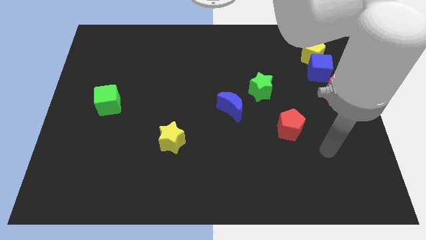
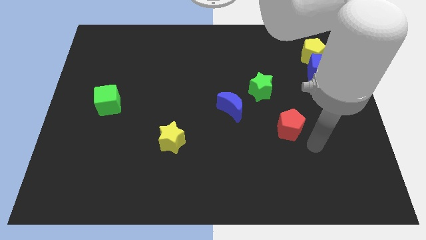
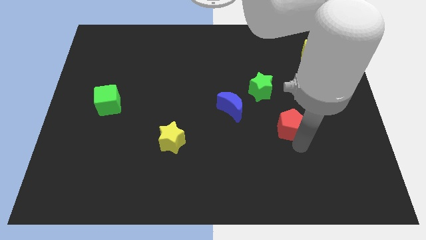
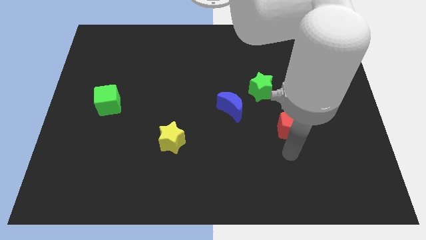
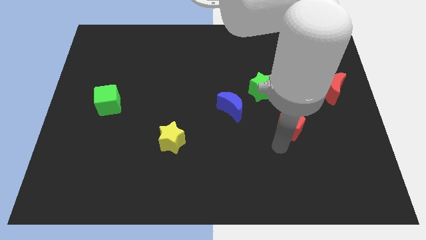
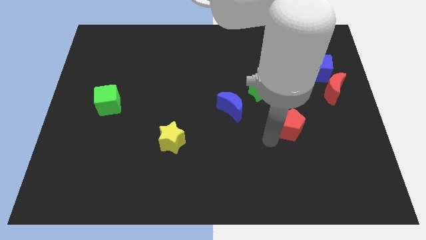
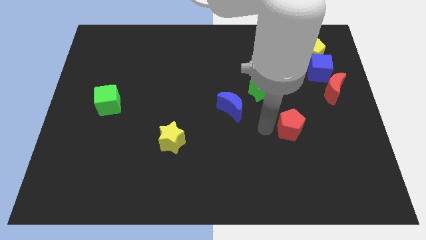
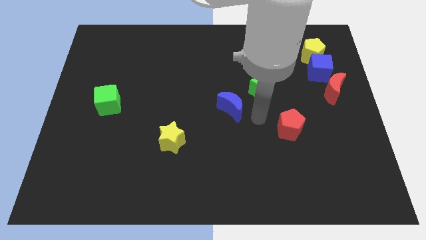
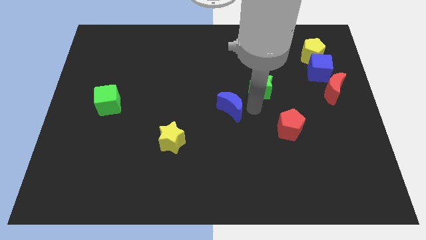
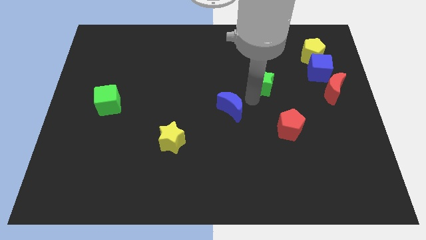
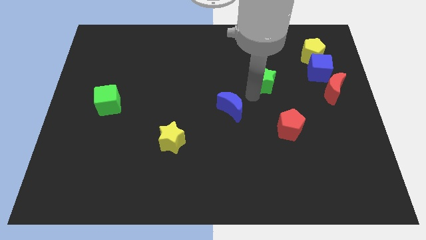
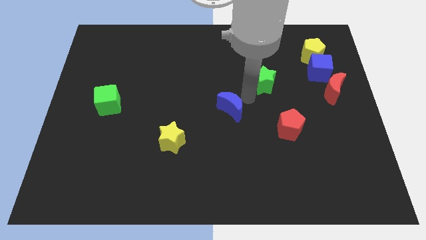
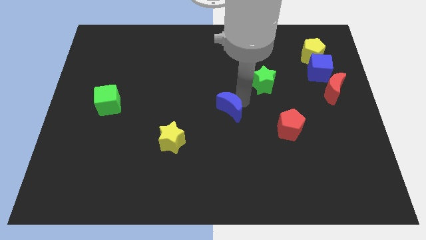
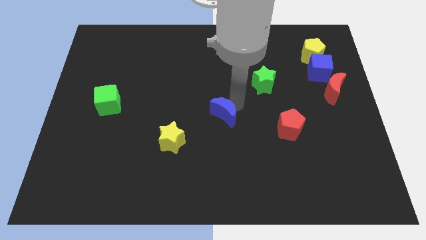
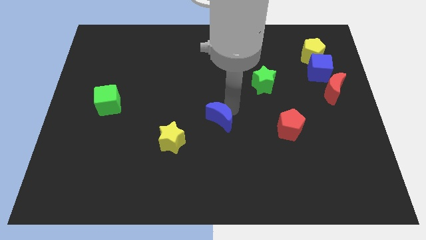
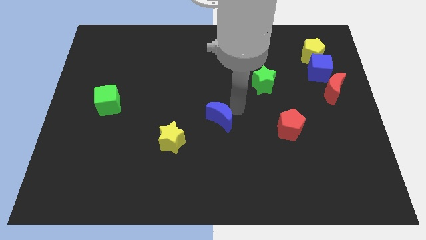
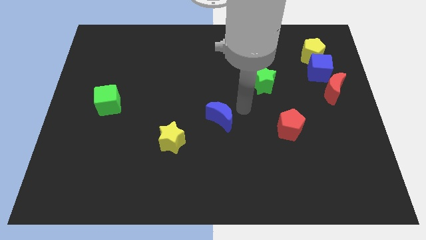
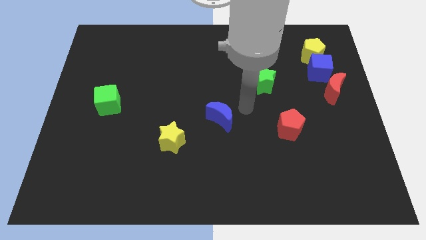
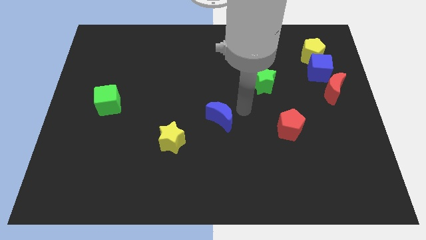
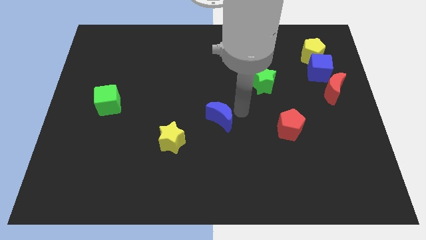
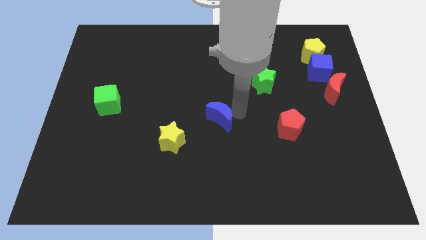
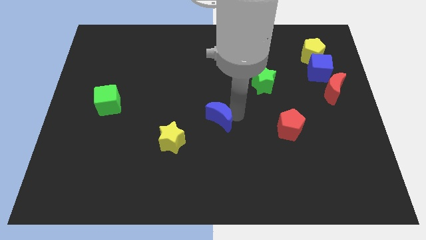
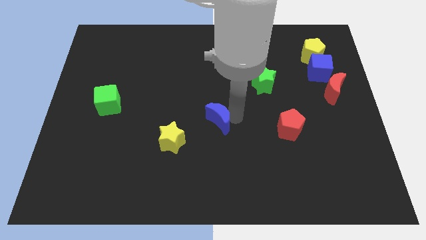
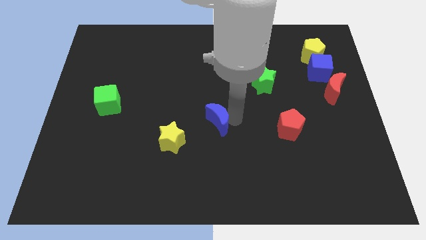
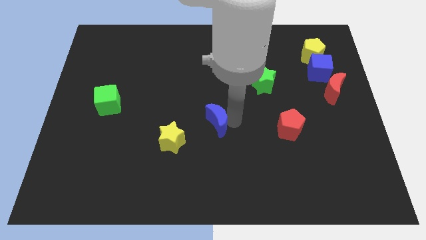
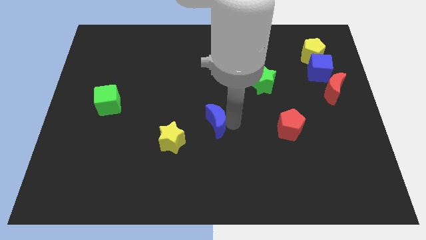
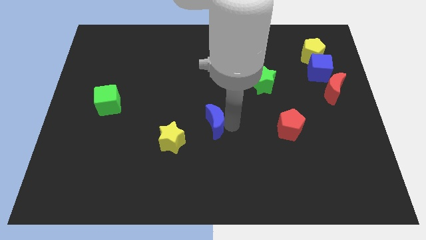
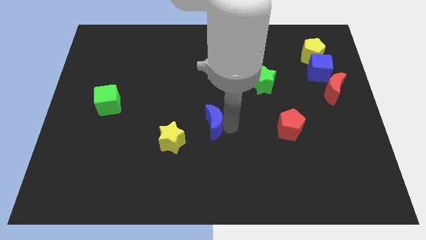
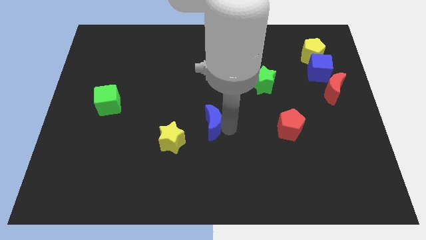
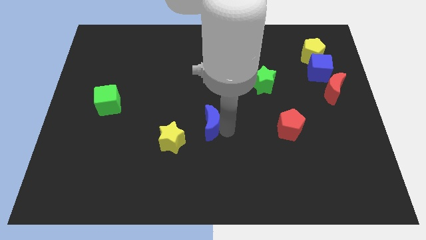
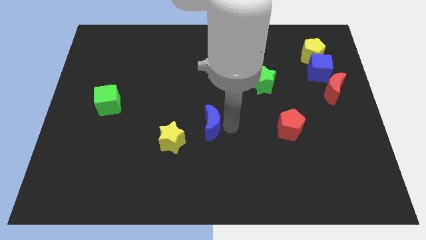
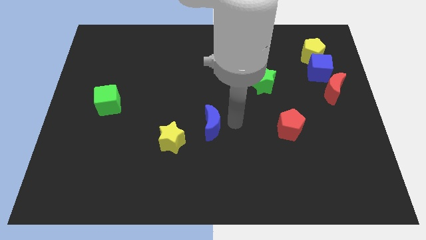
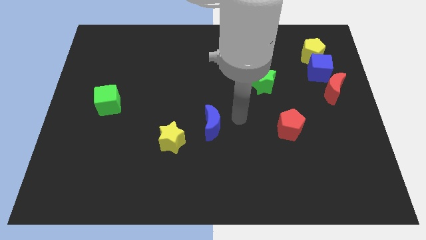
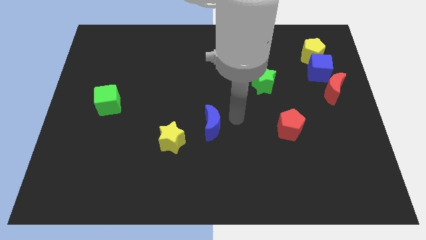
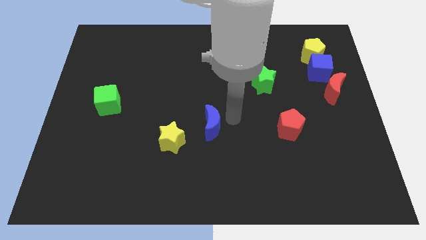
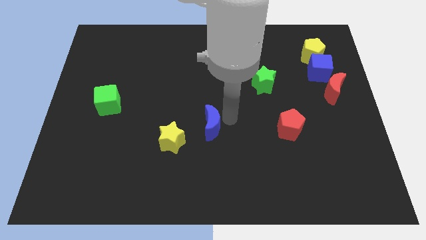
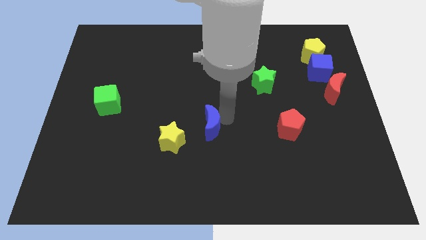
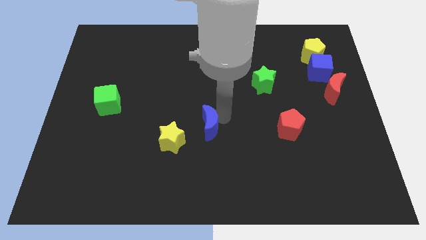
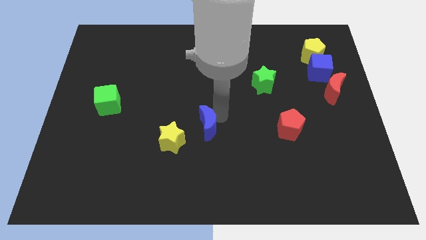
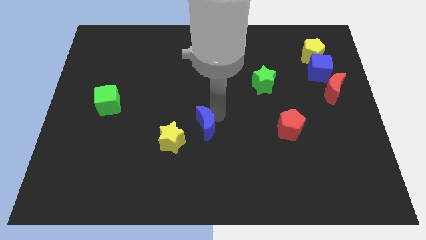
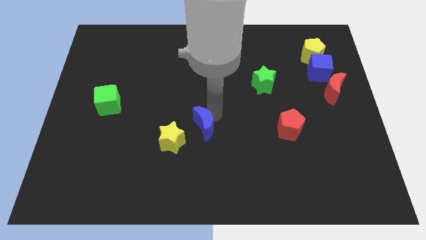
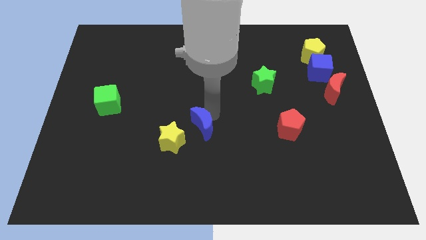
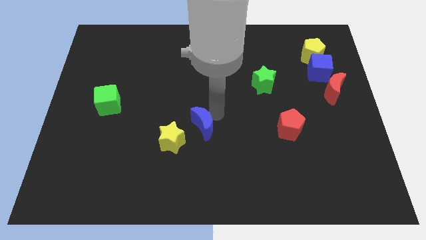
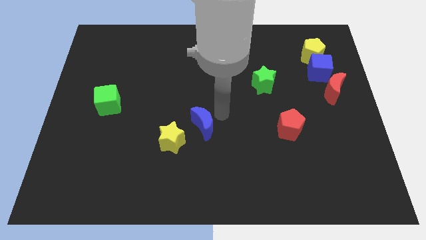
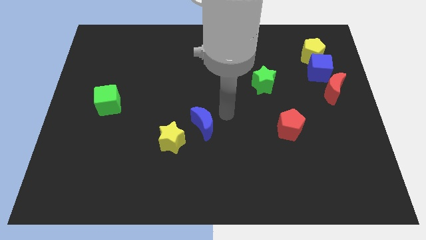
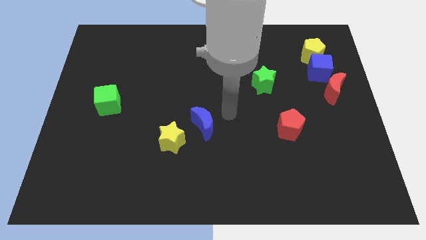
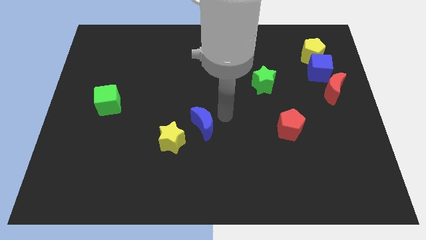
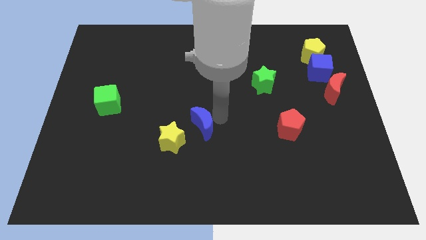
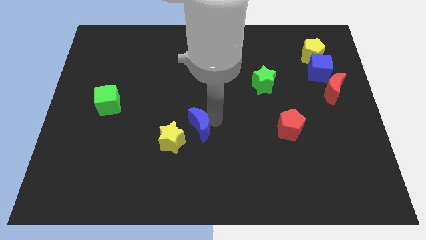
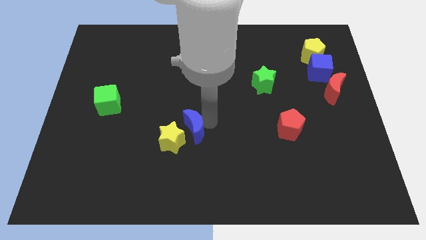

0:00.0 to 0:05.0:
put the blue moon close to the yellow star

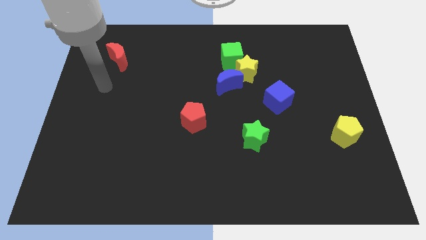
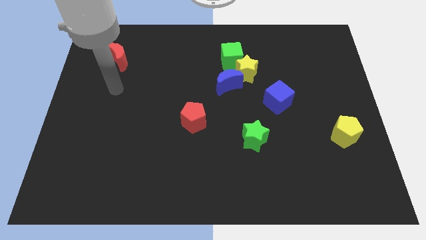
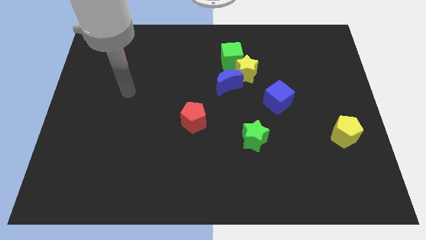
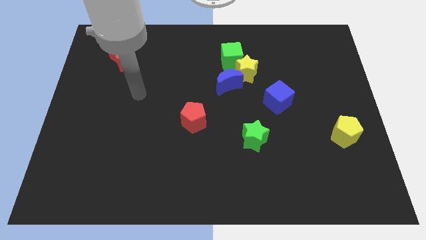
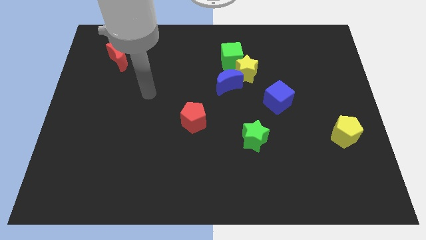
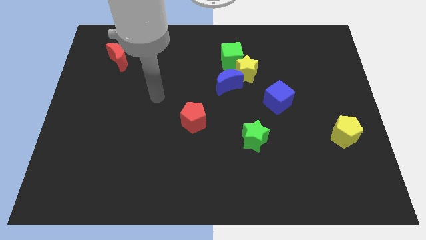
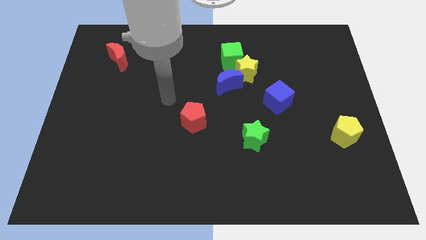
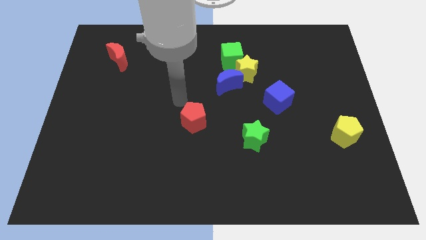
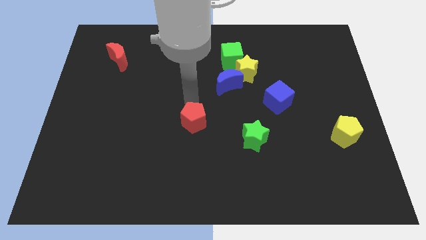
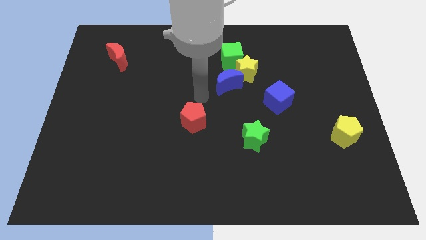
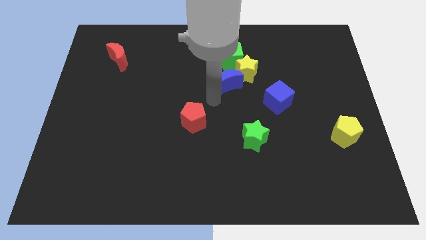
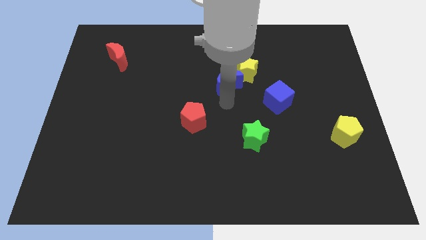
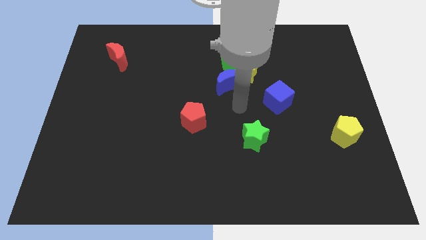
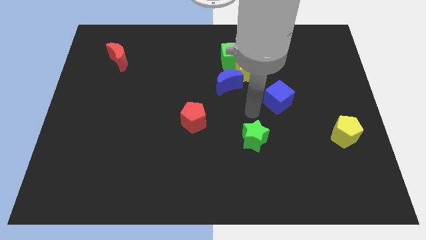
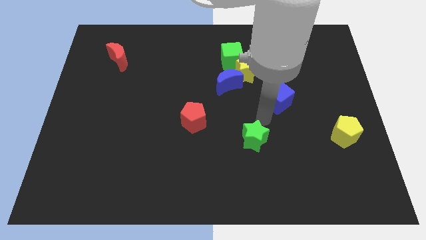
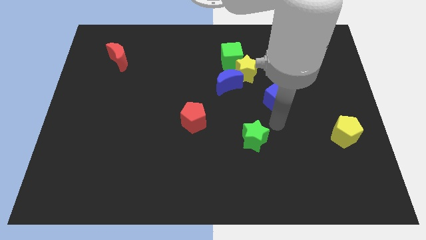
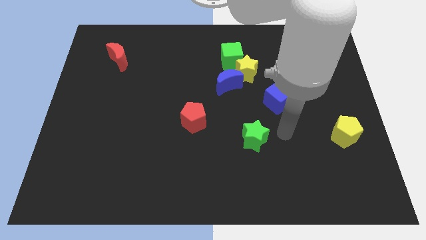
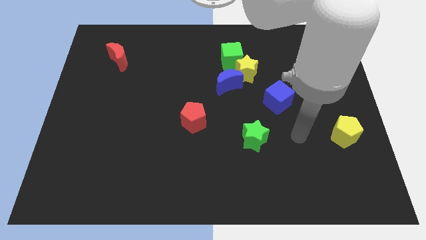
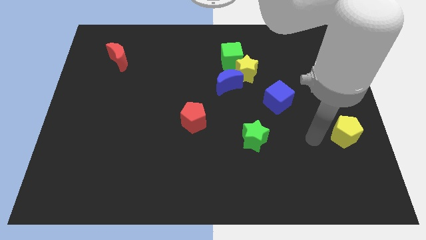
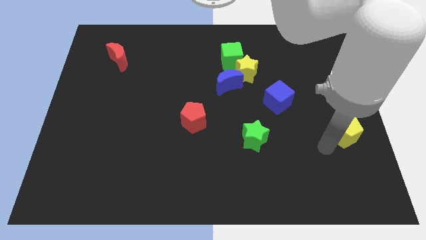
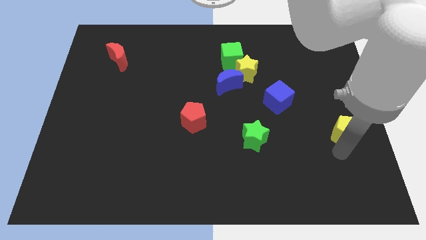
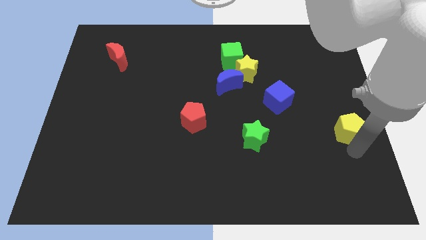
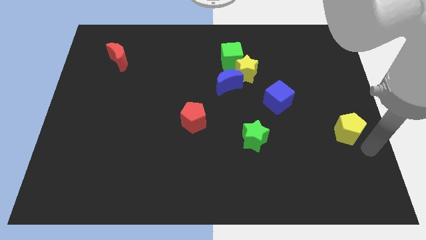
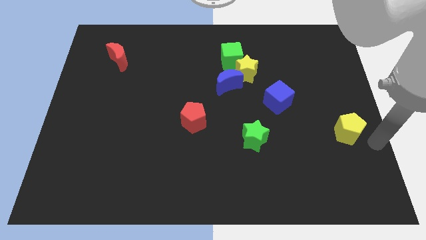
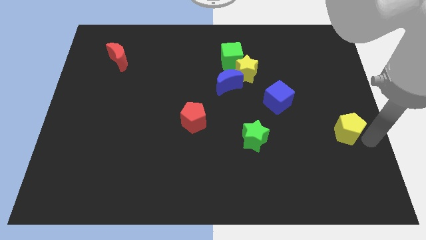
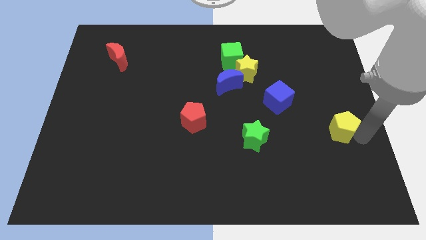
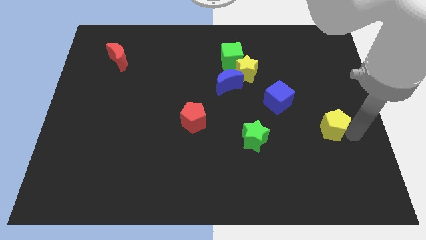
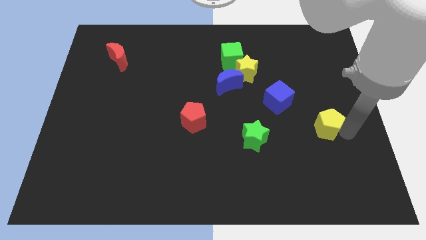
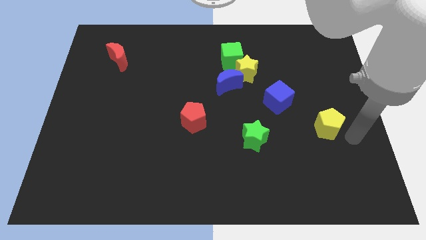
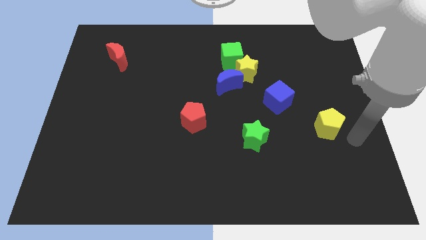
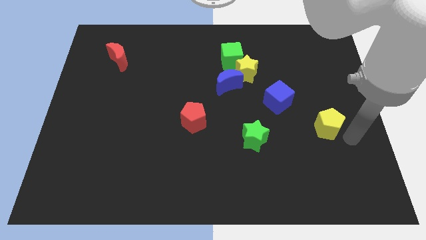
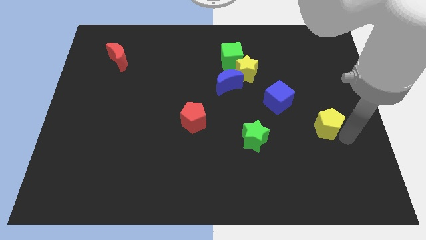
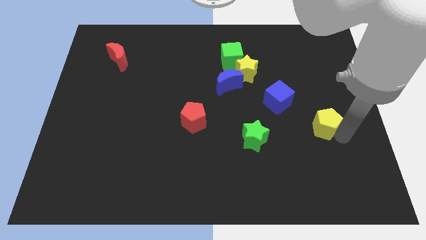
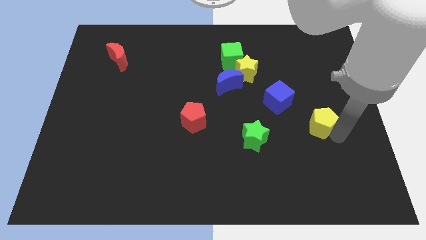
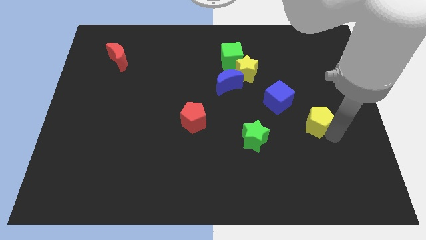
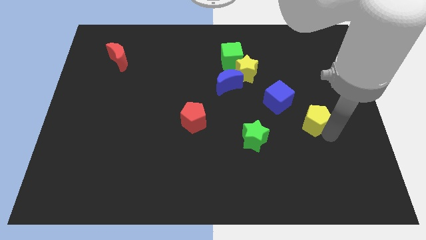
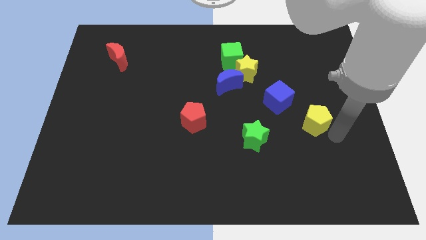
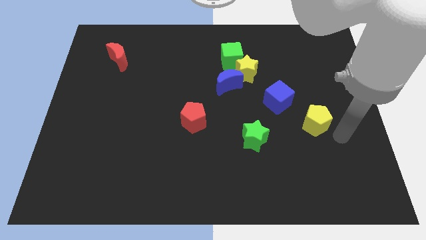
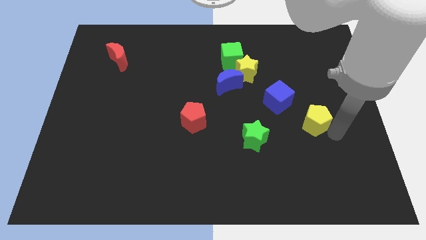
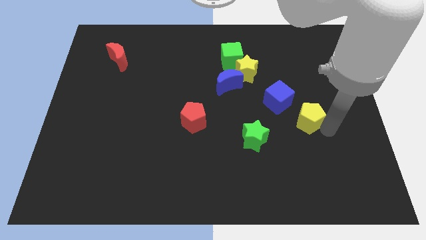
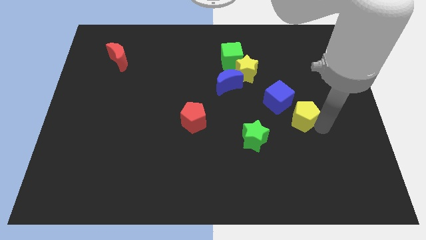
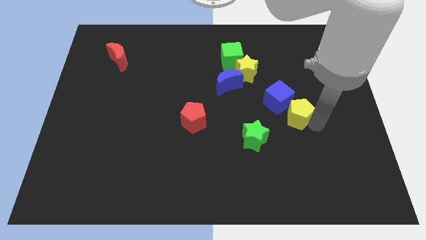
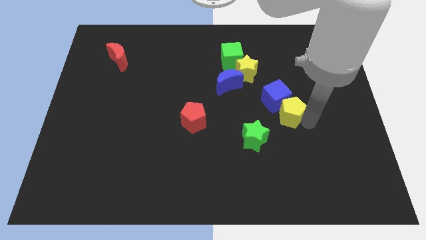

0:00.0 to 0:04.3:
put the yellow pentagon next to the blue cube
